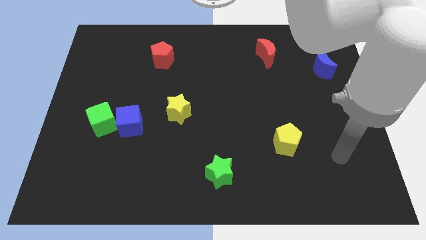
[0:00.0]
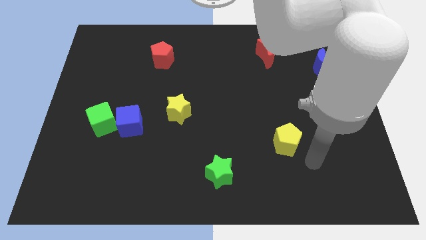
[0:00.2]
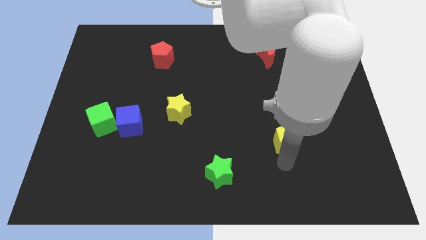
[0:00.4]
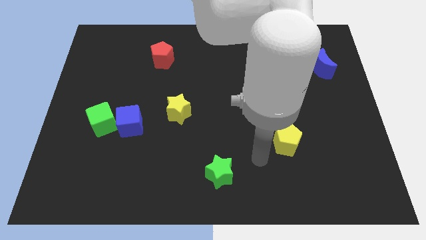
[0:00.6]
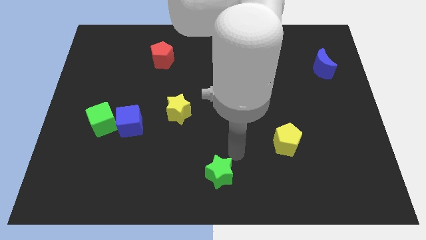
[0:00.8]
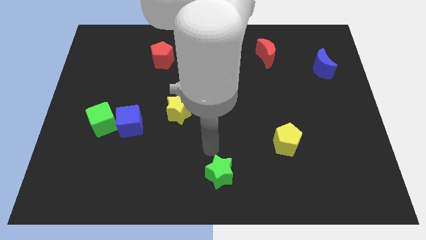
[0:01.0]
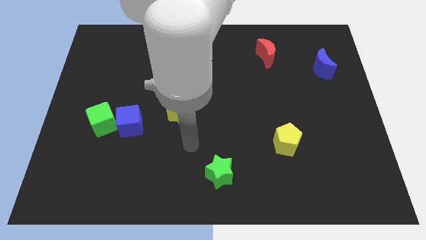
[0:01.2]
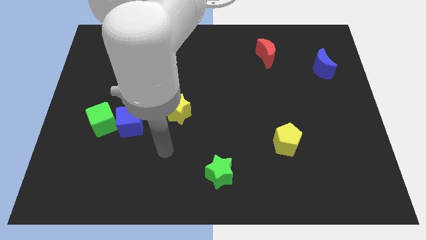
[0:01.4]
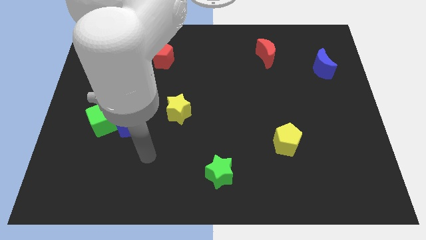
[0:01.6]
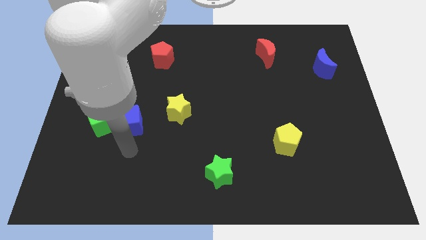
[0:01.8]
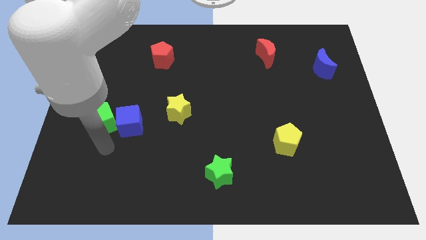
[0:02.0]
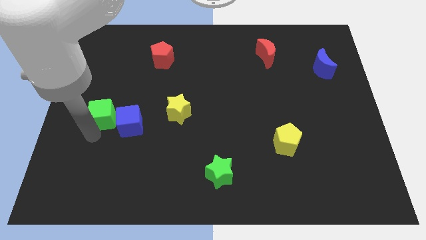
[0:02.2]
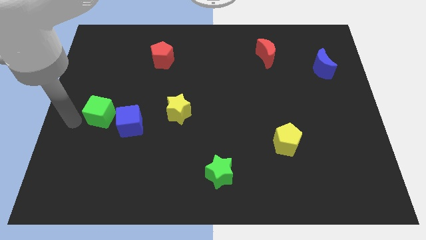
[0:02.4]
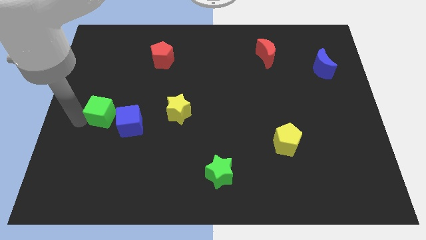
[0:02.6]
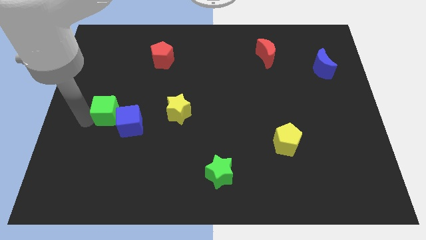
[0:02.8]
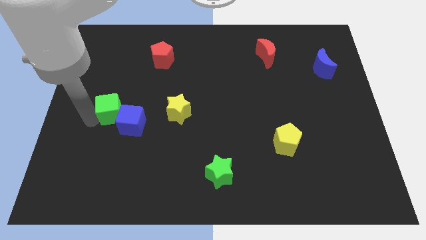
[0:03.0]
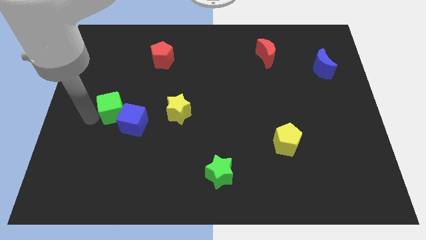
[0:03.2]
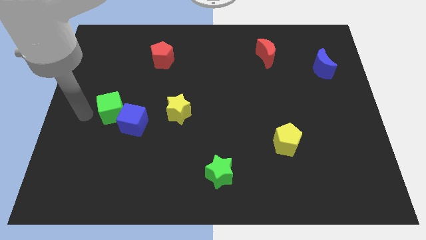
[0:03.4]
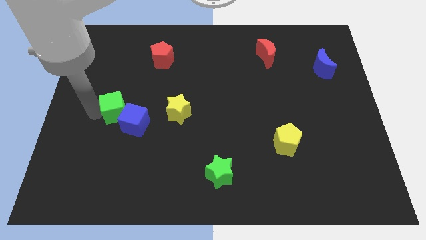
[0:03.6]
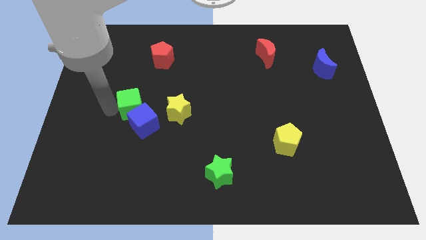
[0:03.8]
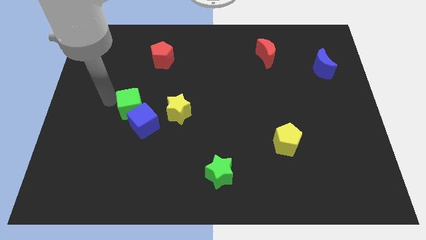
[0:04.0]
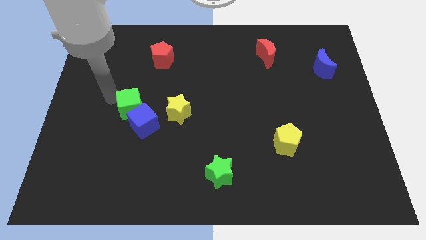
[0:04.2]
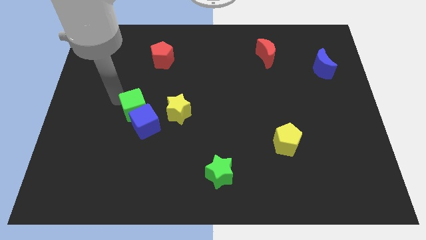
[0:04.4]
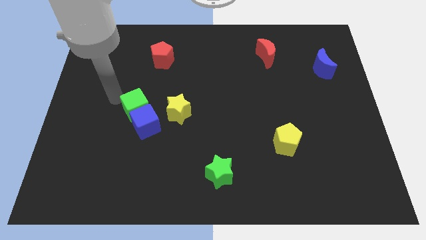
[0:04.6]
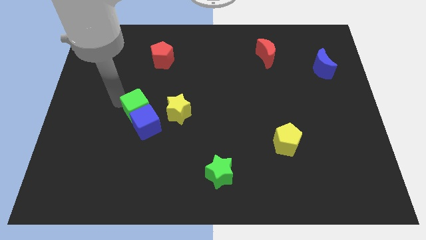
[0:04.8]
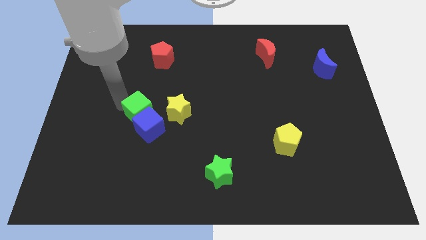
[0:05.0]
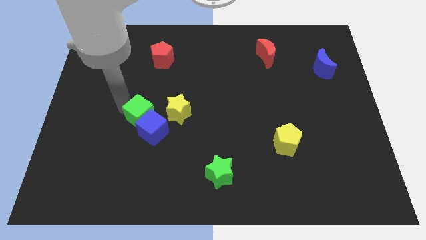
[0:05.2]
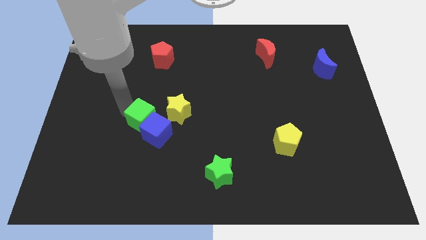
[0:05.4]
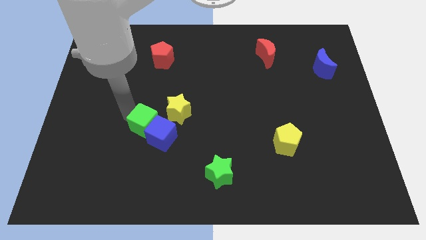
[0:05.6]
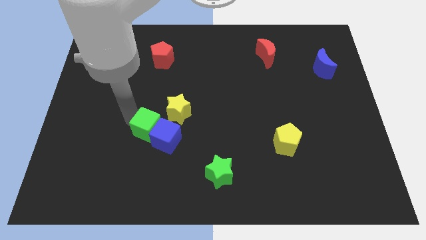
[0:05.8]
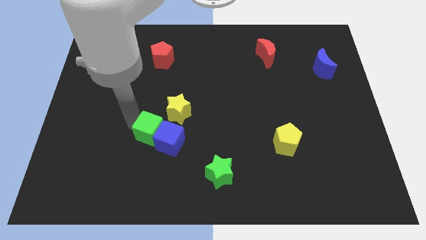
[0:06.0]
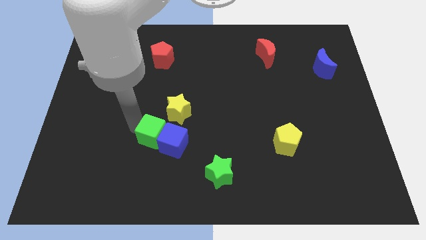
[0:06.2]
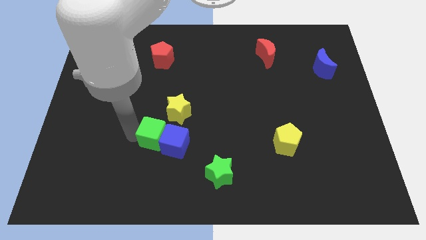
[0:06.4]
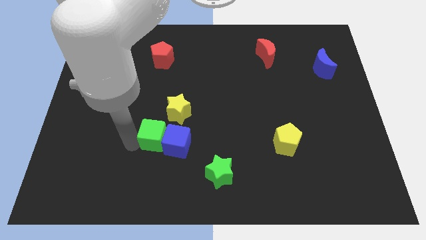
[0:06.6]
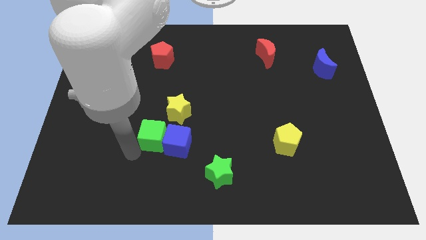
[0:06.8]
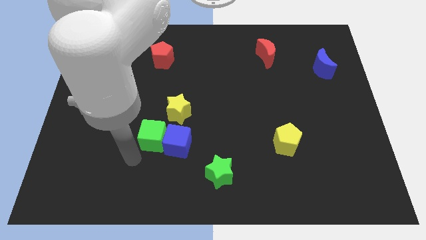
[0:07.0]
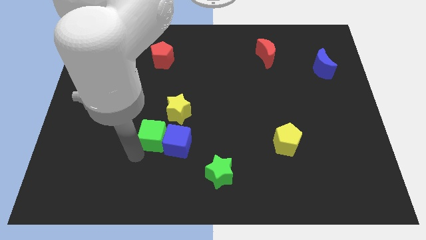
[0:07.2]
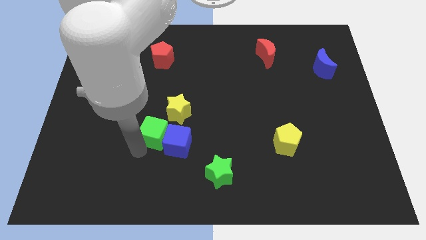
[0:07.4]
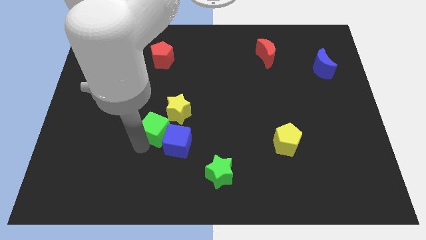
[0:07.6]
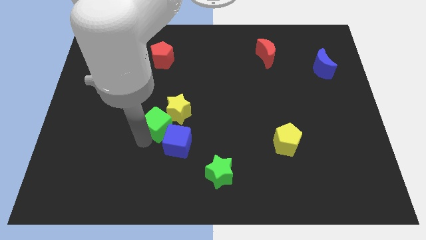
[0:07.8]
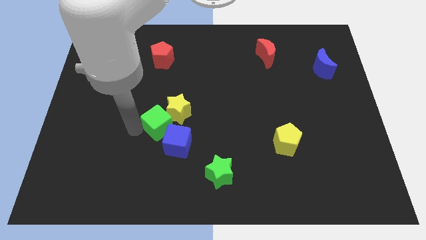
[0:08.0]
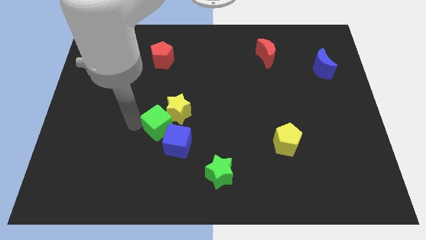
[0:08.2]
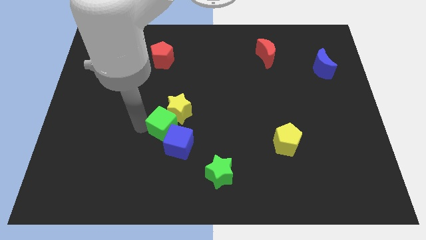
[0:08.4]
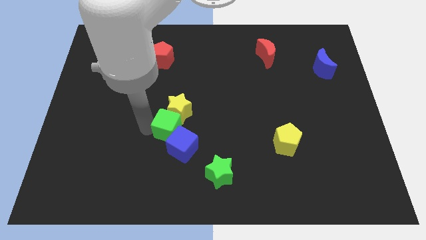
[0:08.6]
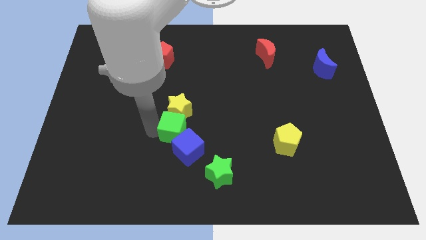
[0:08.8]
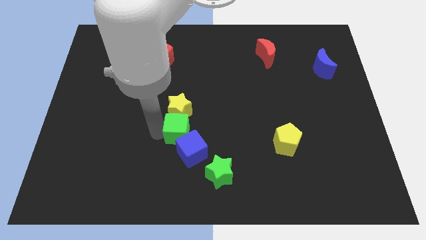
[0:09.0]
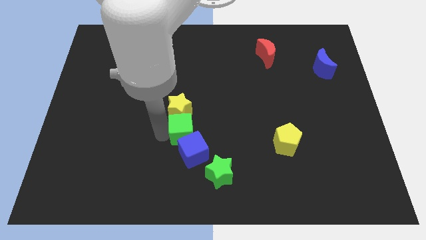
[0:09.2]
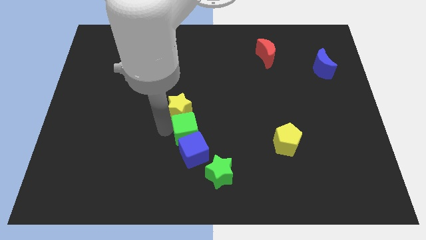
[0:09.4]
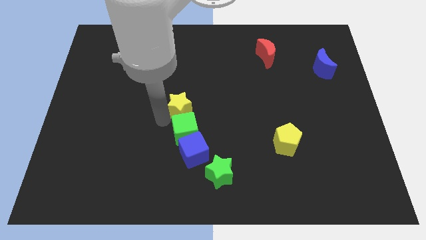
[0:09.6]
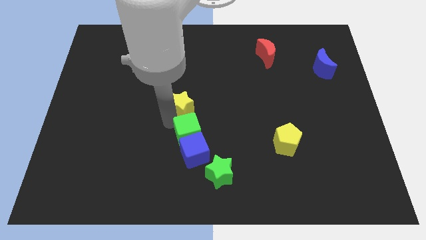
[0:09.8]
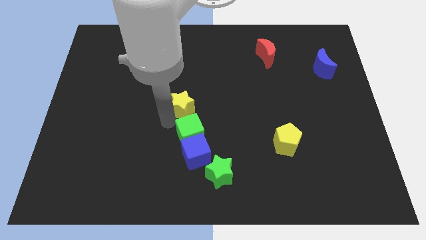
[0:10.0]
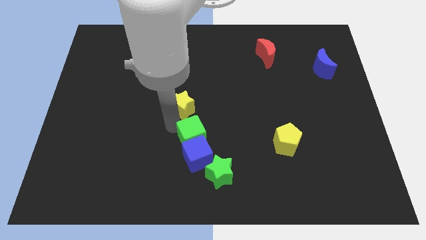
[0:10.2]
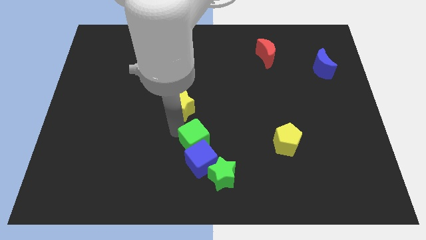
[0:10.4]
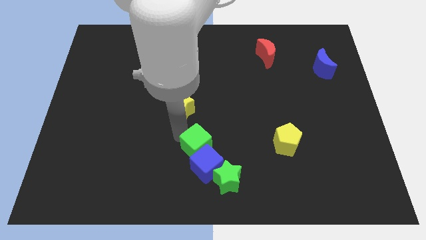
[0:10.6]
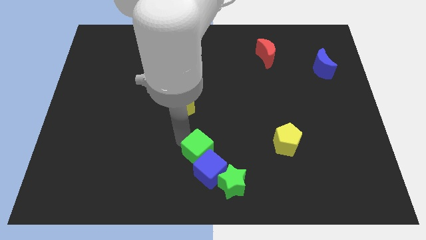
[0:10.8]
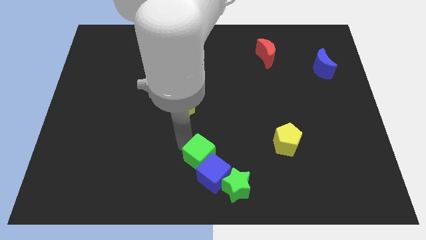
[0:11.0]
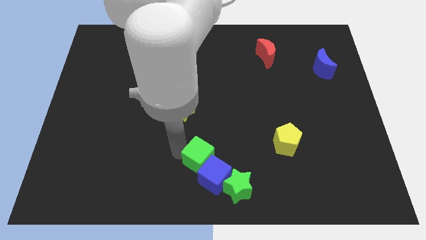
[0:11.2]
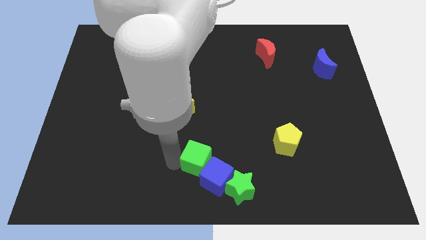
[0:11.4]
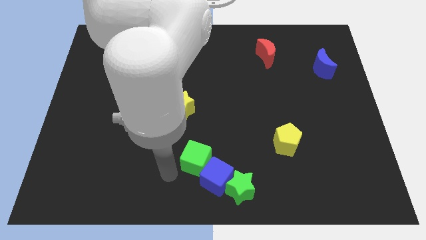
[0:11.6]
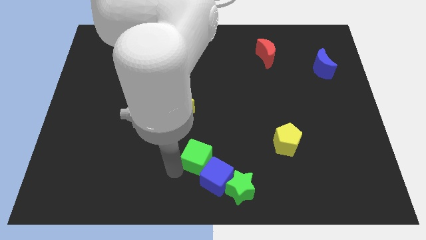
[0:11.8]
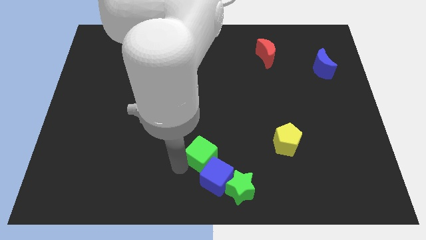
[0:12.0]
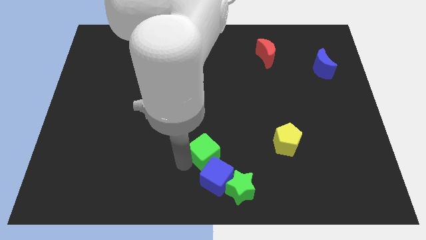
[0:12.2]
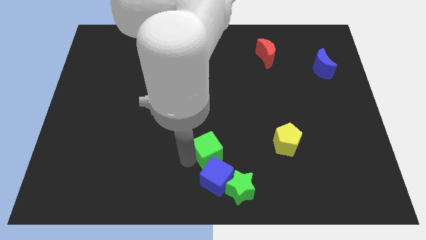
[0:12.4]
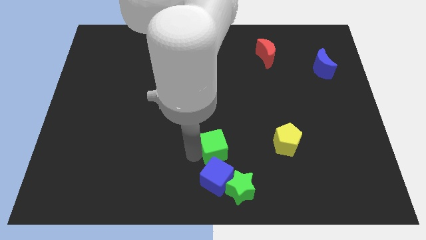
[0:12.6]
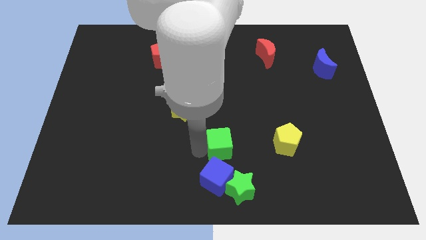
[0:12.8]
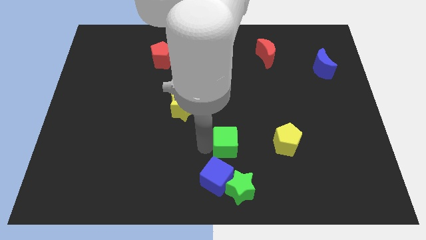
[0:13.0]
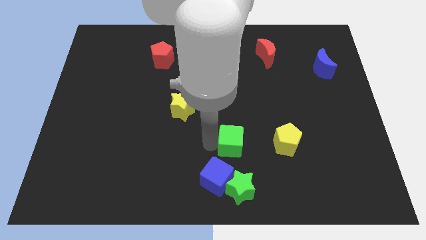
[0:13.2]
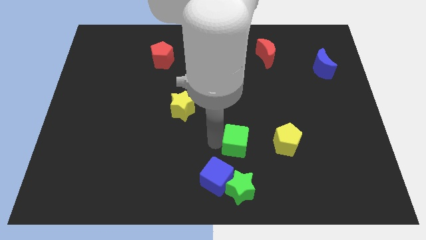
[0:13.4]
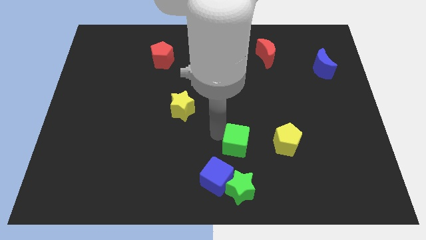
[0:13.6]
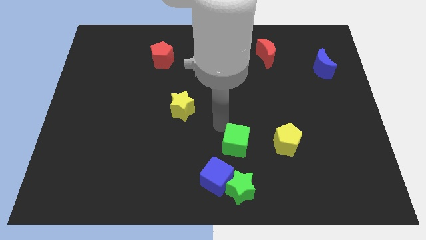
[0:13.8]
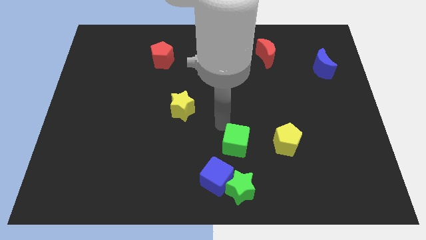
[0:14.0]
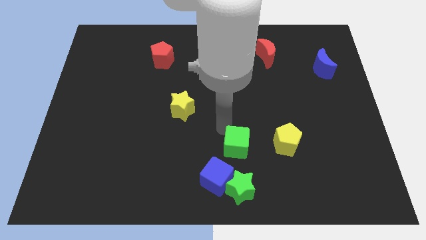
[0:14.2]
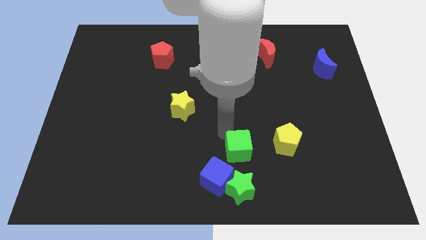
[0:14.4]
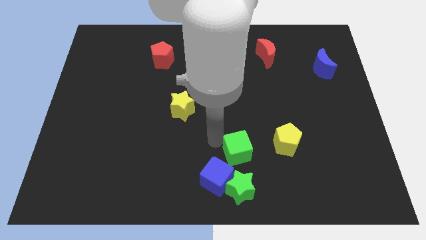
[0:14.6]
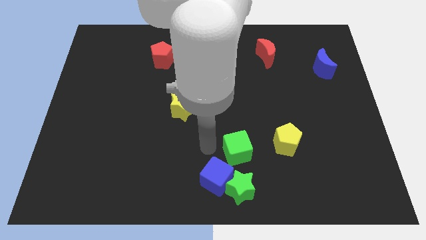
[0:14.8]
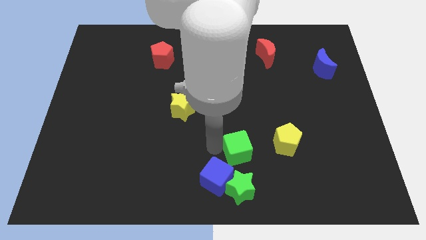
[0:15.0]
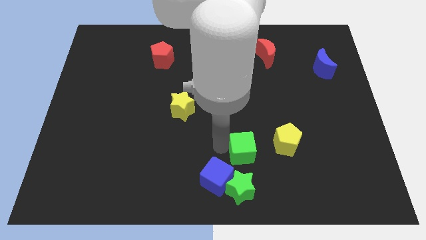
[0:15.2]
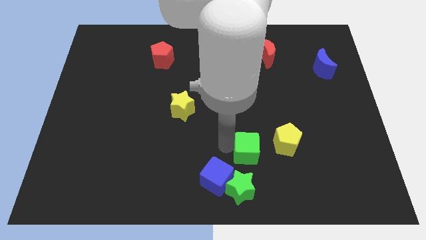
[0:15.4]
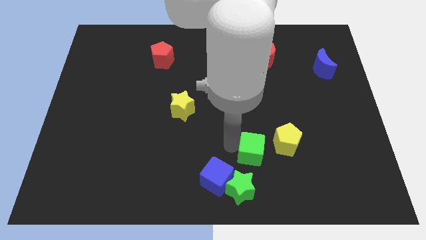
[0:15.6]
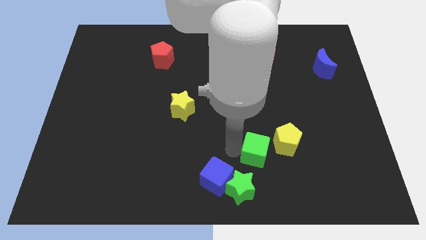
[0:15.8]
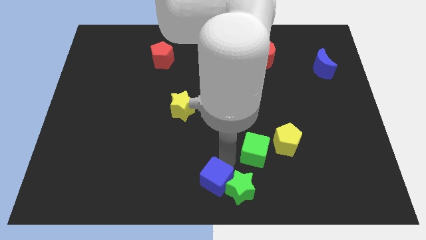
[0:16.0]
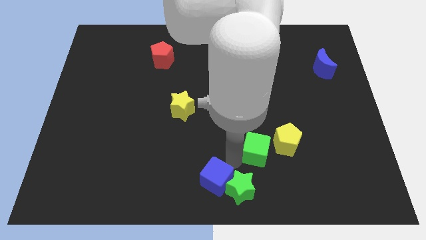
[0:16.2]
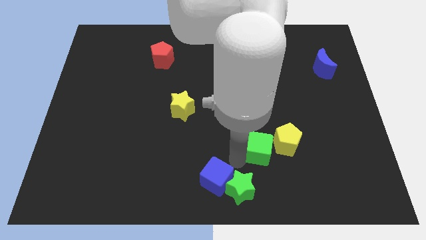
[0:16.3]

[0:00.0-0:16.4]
slide the green cube next to the yellow pentagon
